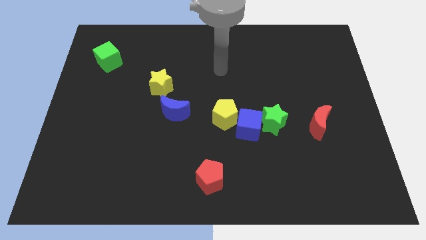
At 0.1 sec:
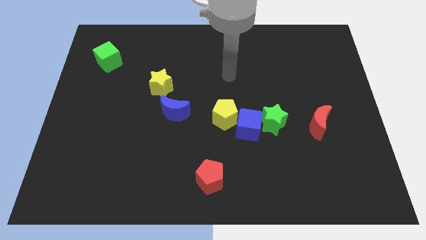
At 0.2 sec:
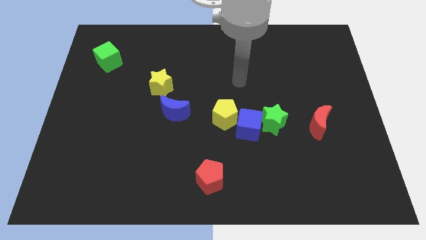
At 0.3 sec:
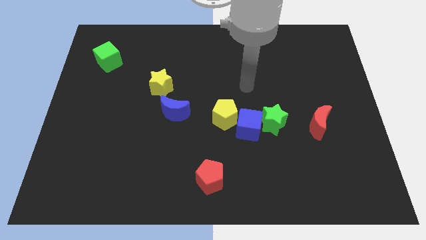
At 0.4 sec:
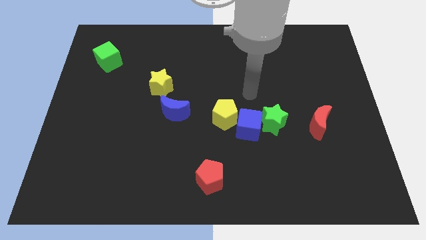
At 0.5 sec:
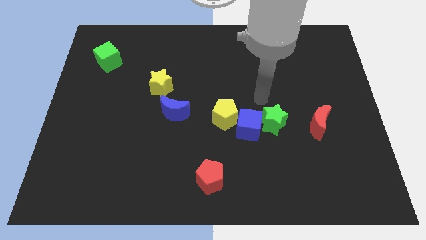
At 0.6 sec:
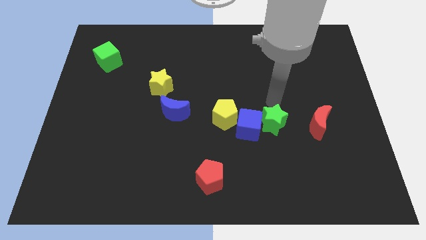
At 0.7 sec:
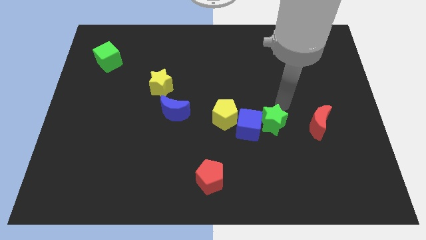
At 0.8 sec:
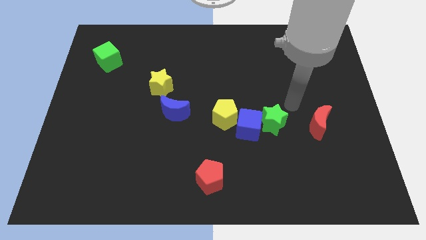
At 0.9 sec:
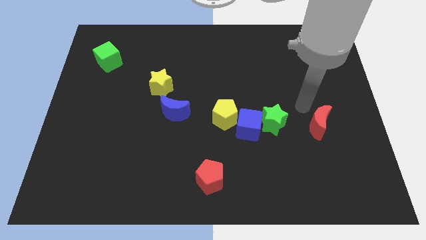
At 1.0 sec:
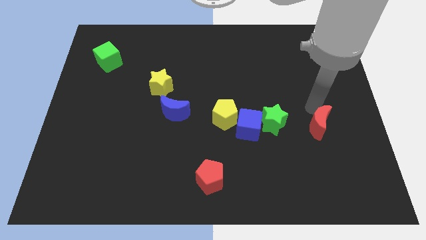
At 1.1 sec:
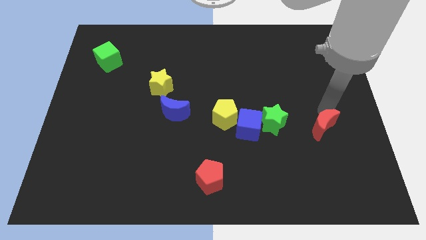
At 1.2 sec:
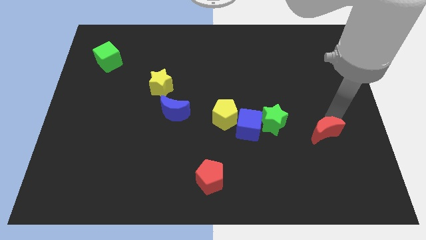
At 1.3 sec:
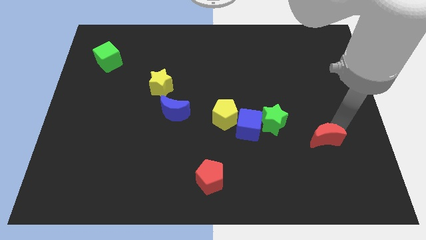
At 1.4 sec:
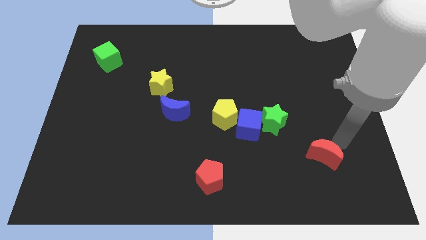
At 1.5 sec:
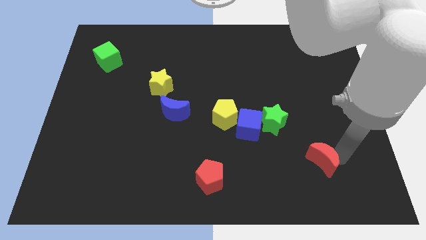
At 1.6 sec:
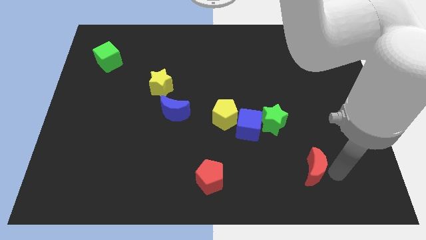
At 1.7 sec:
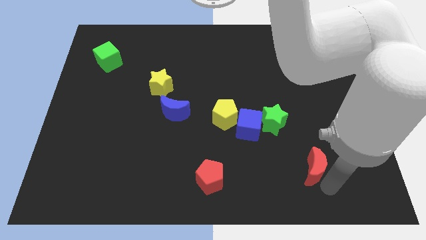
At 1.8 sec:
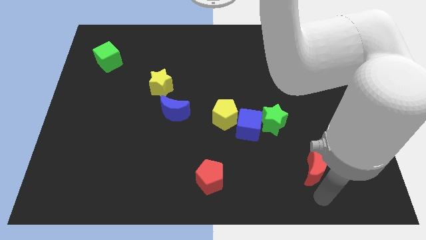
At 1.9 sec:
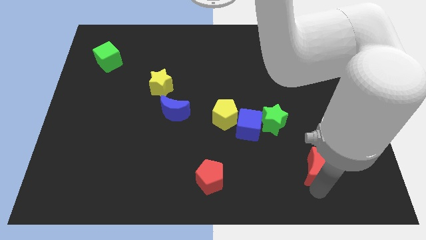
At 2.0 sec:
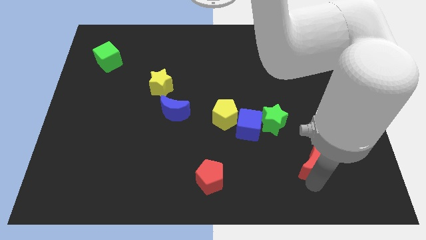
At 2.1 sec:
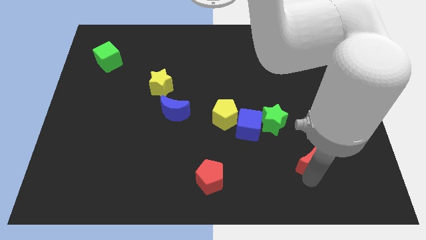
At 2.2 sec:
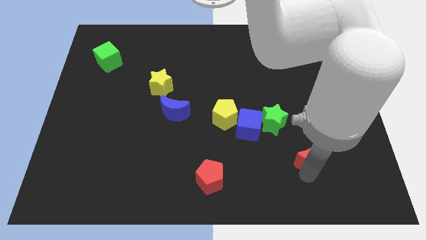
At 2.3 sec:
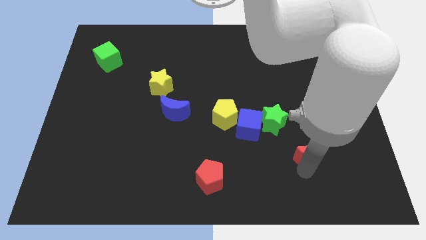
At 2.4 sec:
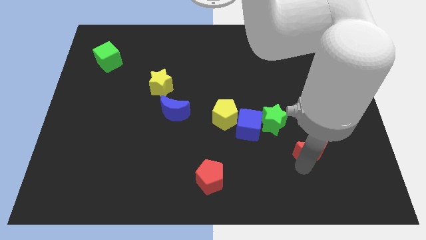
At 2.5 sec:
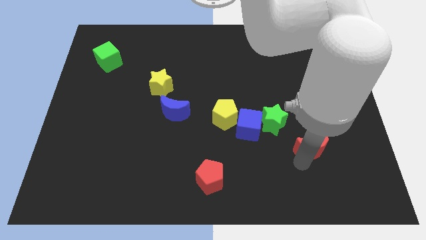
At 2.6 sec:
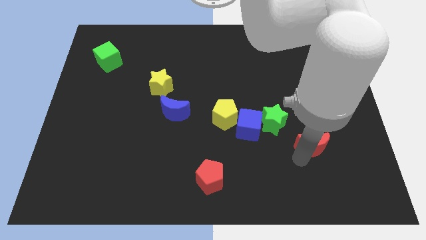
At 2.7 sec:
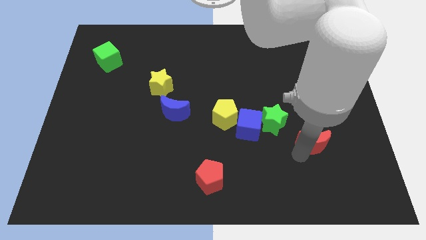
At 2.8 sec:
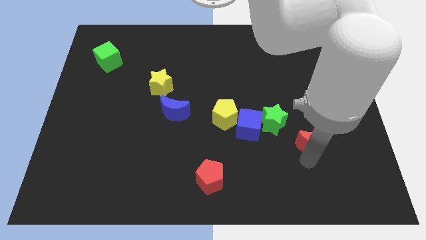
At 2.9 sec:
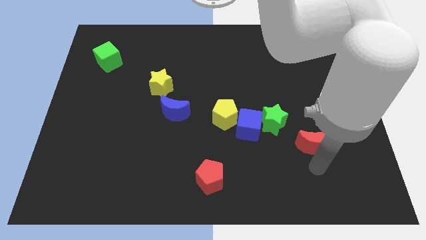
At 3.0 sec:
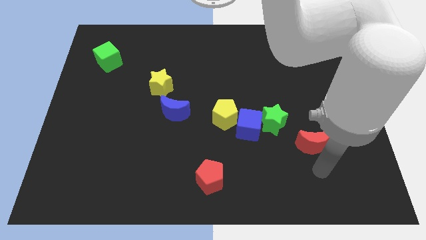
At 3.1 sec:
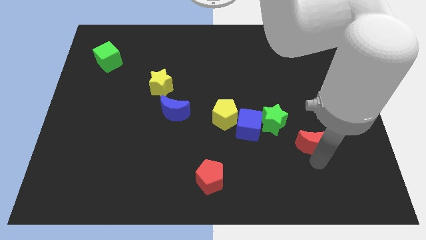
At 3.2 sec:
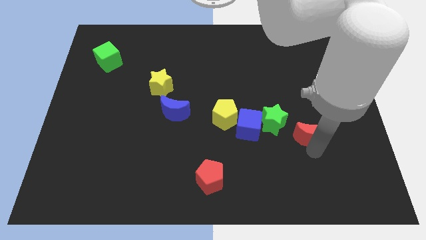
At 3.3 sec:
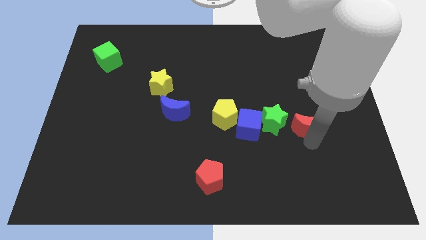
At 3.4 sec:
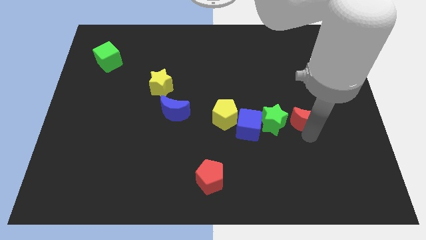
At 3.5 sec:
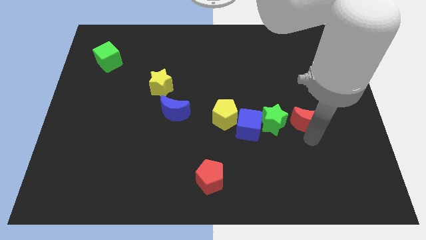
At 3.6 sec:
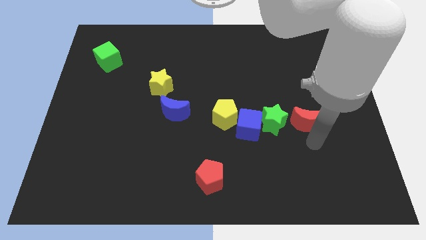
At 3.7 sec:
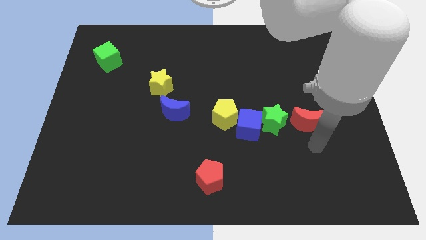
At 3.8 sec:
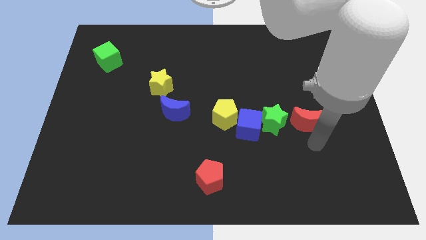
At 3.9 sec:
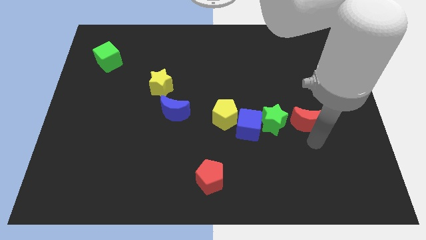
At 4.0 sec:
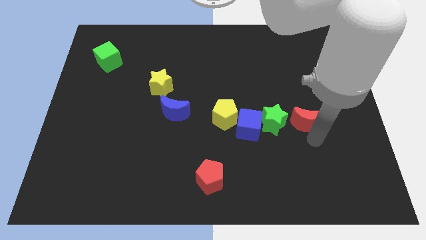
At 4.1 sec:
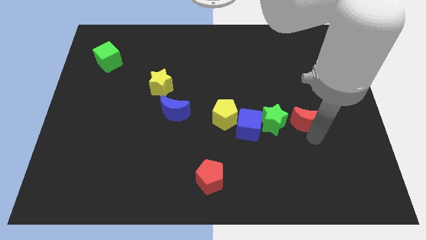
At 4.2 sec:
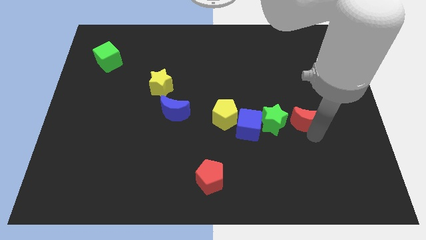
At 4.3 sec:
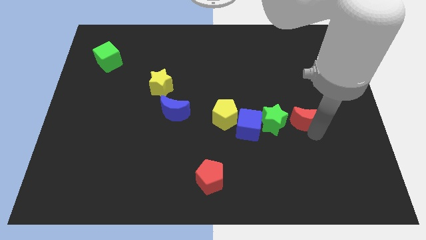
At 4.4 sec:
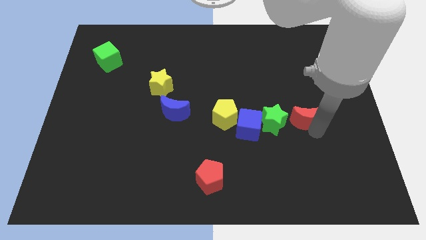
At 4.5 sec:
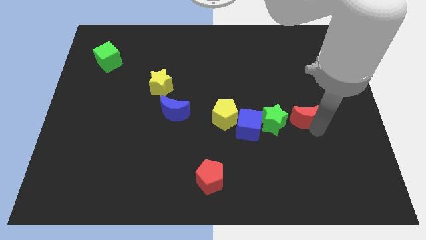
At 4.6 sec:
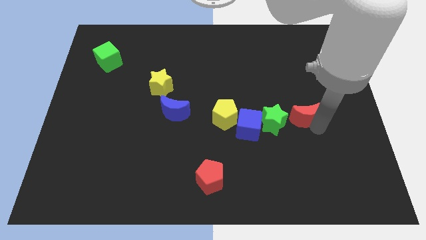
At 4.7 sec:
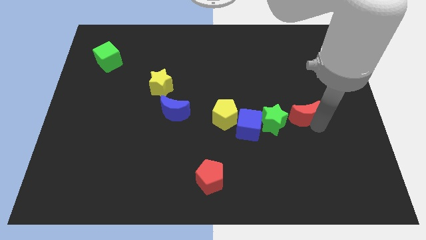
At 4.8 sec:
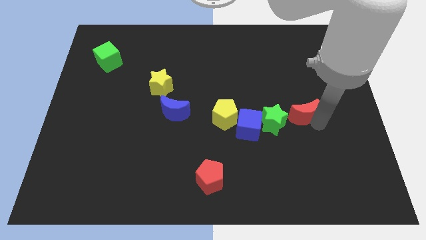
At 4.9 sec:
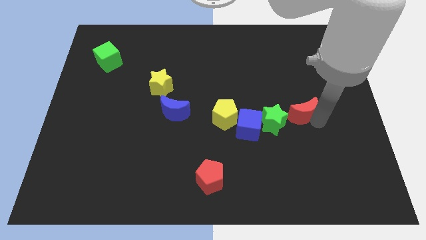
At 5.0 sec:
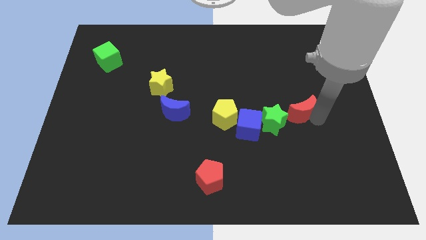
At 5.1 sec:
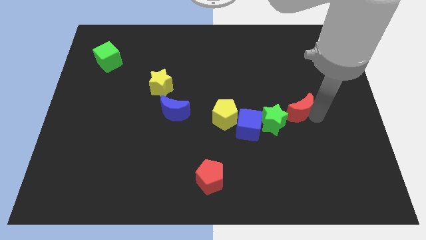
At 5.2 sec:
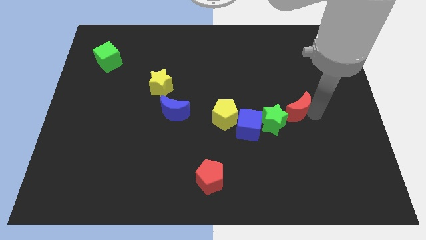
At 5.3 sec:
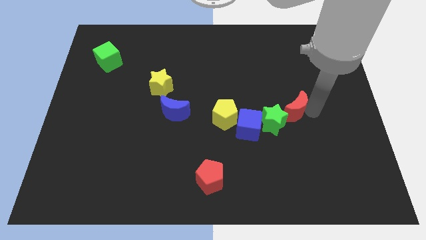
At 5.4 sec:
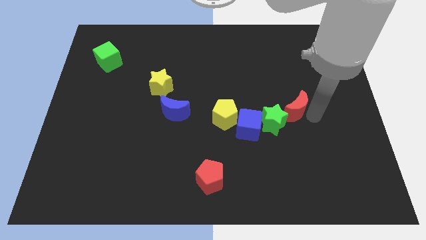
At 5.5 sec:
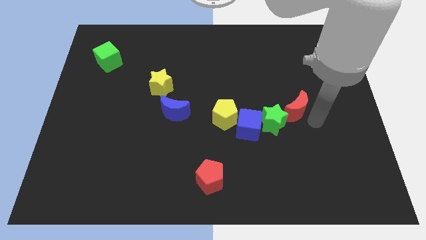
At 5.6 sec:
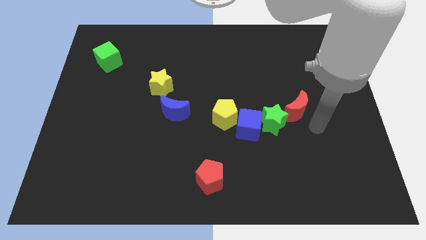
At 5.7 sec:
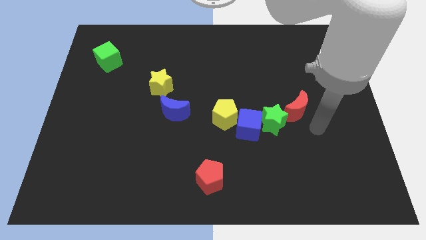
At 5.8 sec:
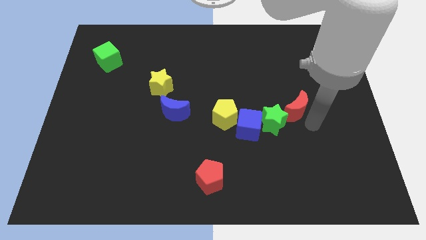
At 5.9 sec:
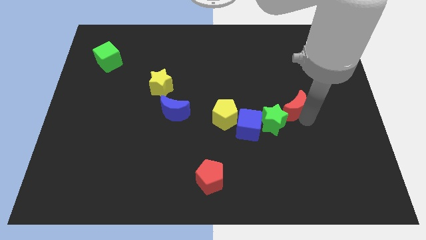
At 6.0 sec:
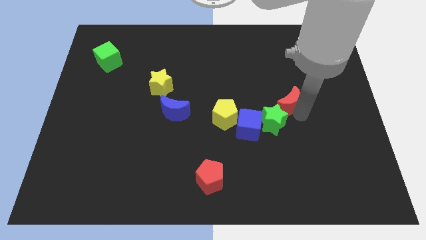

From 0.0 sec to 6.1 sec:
slightly move the red moon up and left

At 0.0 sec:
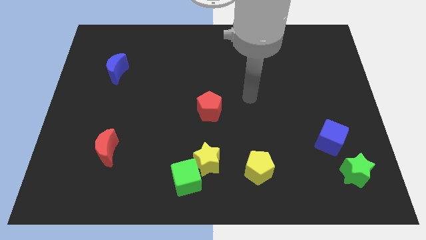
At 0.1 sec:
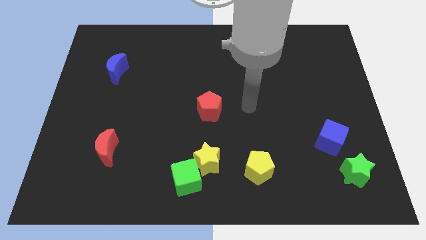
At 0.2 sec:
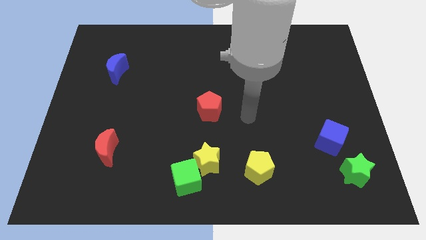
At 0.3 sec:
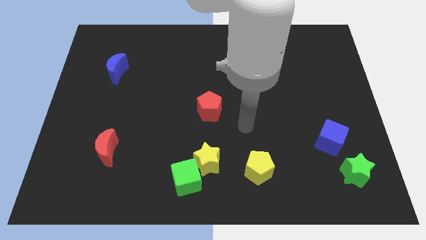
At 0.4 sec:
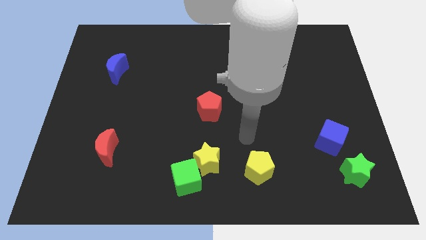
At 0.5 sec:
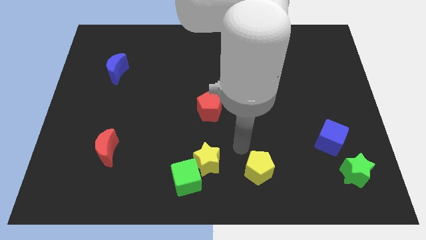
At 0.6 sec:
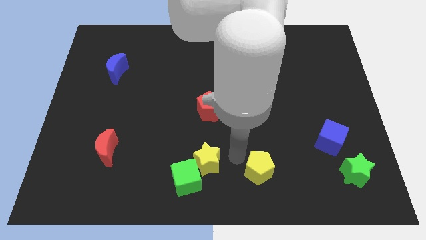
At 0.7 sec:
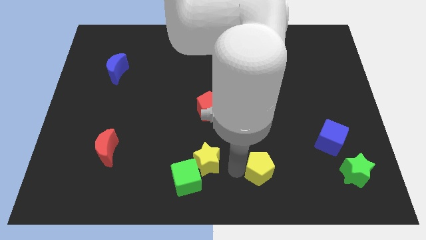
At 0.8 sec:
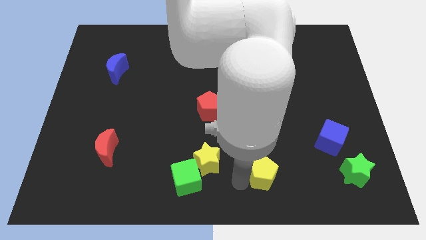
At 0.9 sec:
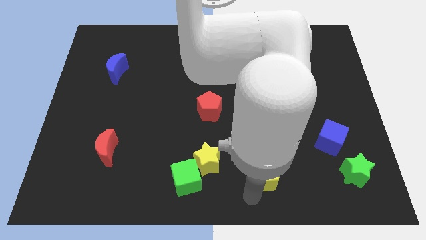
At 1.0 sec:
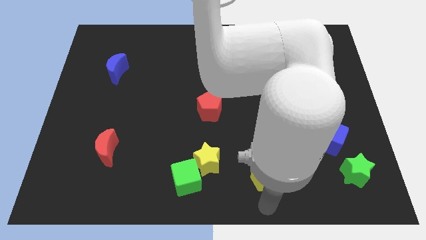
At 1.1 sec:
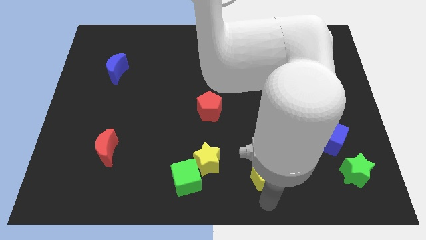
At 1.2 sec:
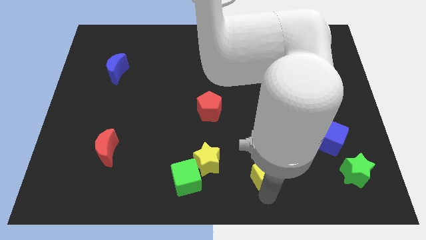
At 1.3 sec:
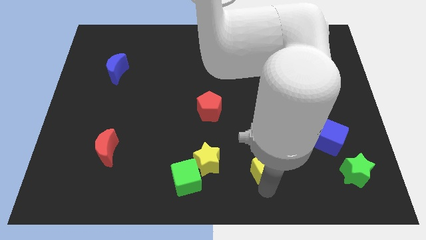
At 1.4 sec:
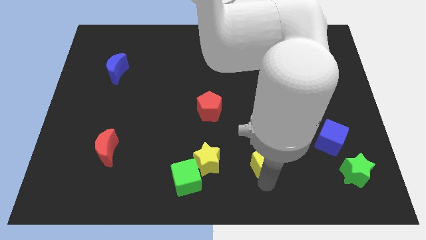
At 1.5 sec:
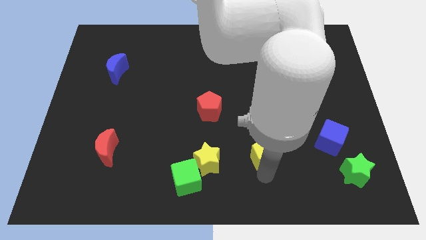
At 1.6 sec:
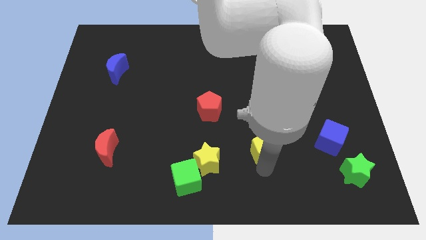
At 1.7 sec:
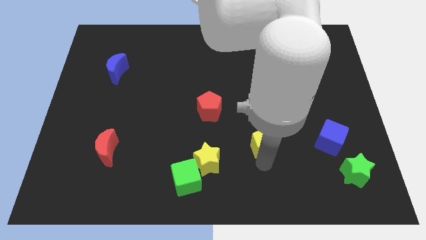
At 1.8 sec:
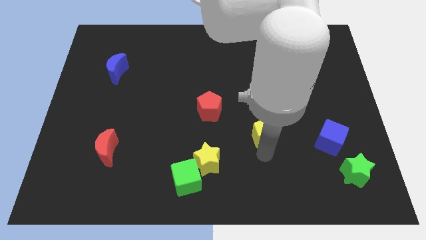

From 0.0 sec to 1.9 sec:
move the yellow pentagon up a little
